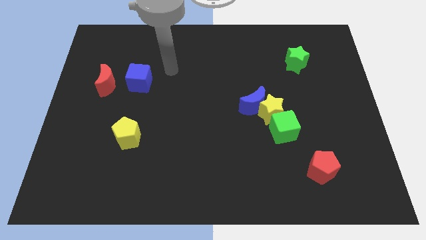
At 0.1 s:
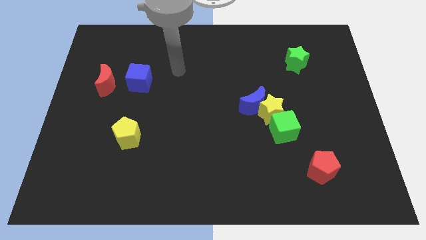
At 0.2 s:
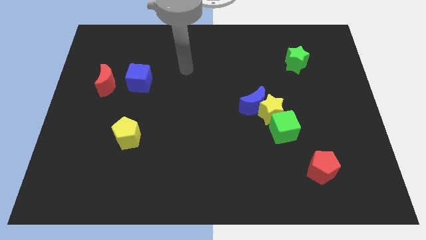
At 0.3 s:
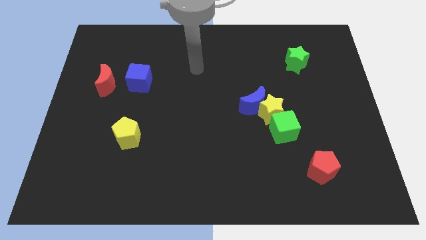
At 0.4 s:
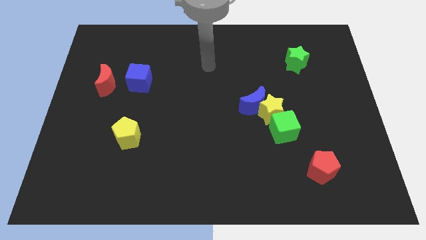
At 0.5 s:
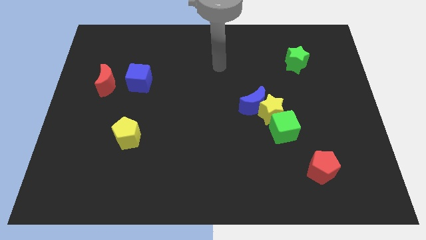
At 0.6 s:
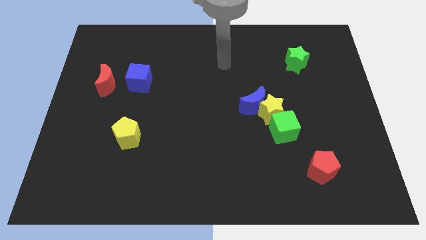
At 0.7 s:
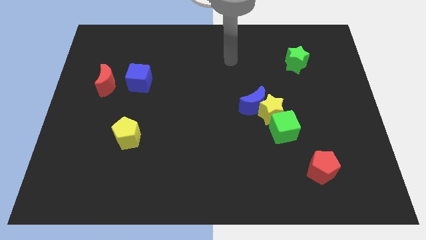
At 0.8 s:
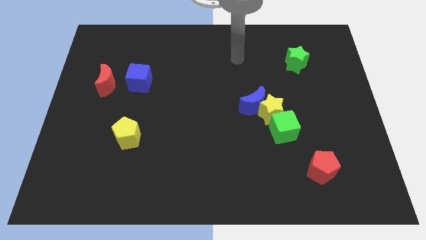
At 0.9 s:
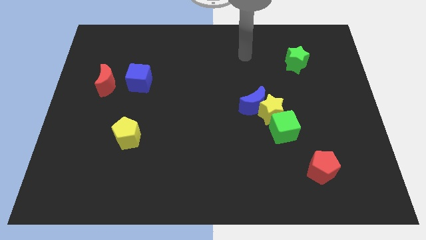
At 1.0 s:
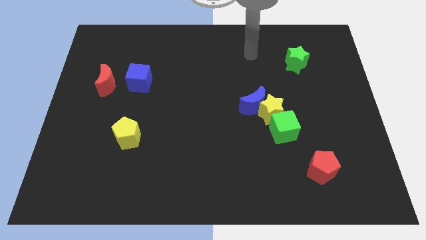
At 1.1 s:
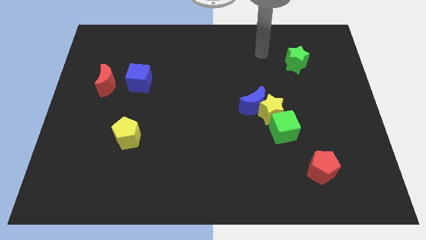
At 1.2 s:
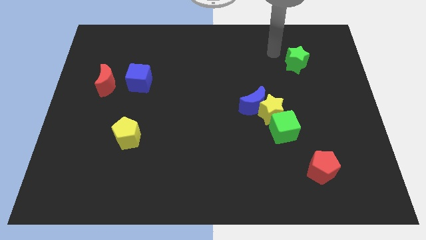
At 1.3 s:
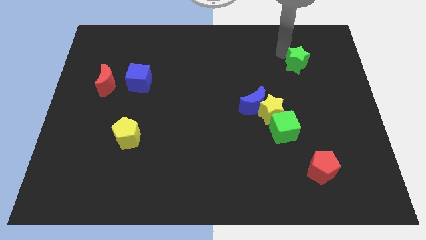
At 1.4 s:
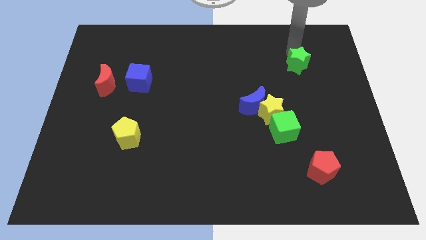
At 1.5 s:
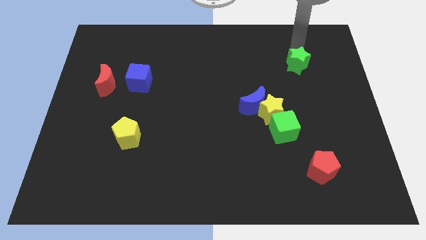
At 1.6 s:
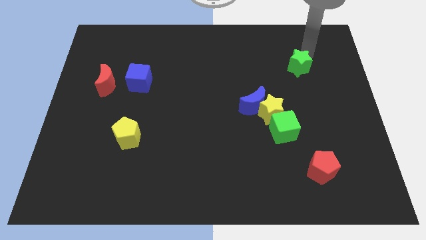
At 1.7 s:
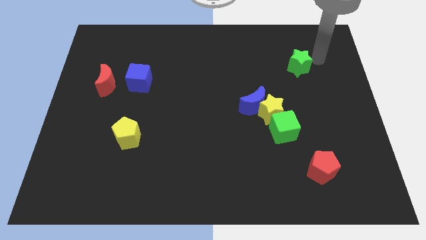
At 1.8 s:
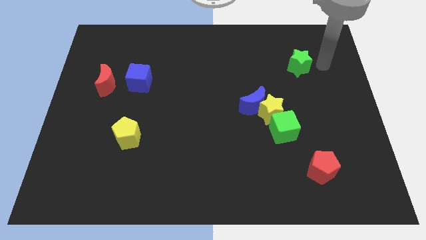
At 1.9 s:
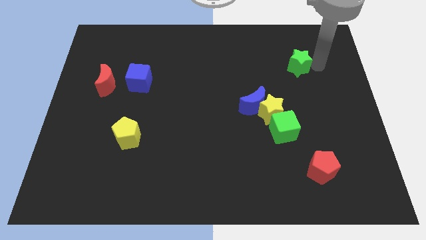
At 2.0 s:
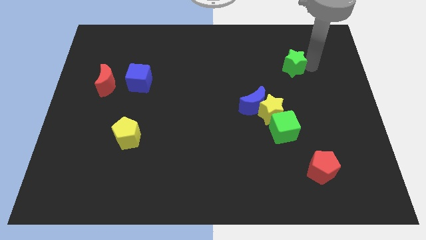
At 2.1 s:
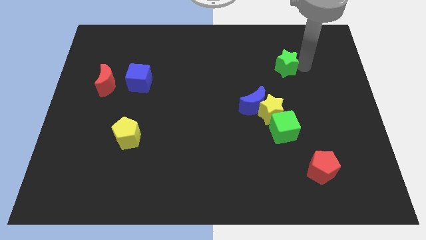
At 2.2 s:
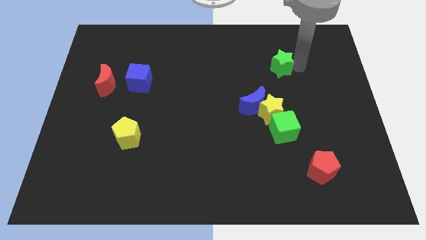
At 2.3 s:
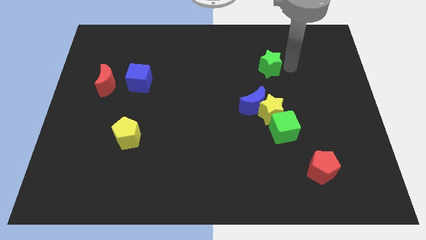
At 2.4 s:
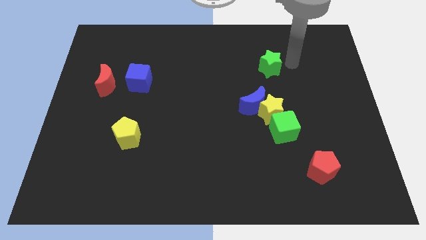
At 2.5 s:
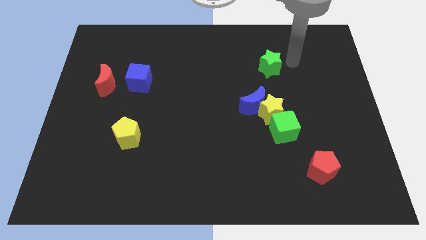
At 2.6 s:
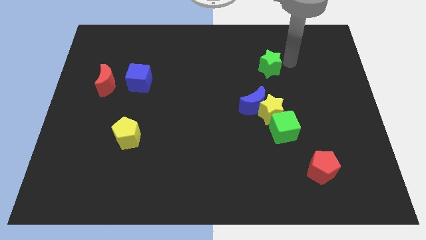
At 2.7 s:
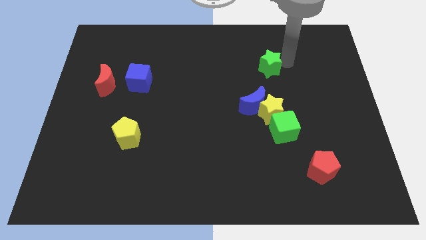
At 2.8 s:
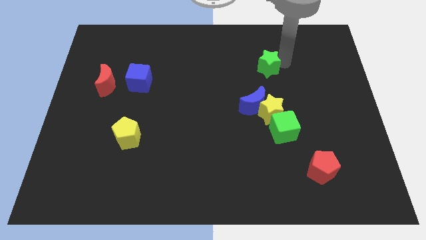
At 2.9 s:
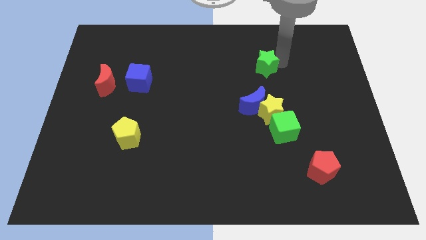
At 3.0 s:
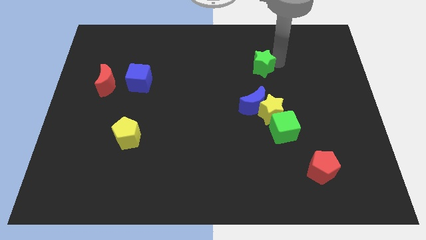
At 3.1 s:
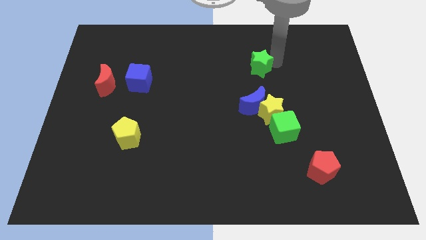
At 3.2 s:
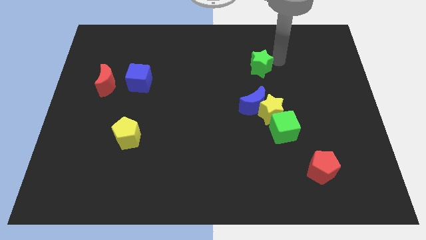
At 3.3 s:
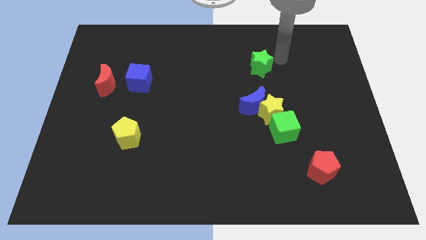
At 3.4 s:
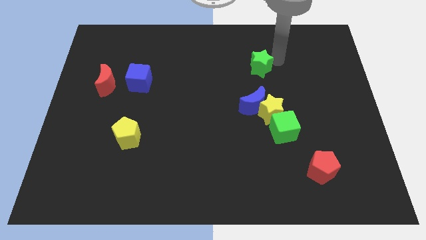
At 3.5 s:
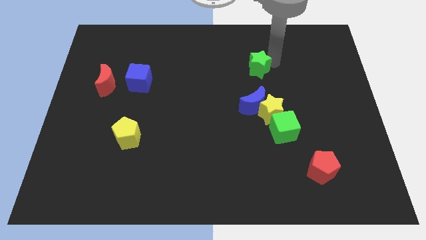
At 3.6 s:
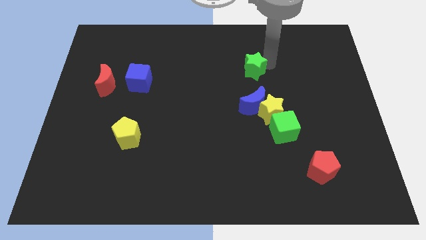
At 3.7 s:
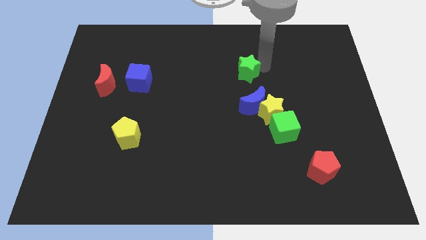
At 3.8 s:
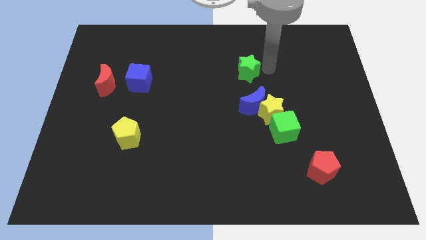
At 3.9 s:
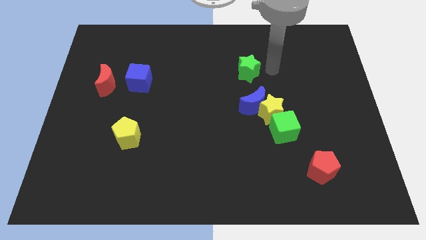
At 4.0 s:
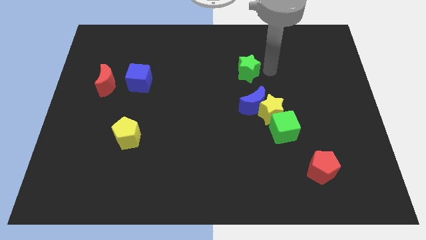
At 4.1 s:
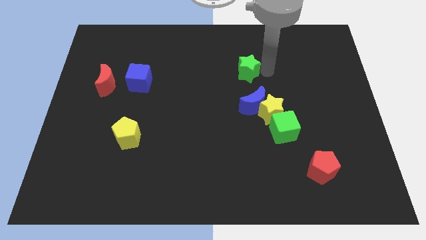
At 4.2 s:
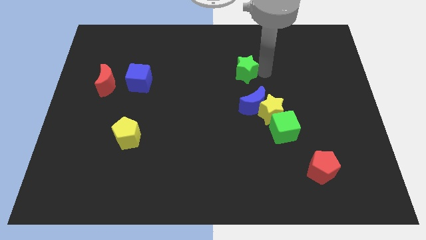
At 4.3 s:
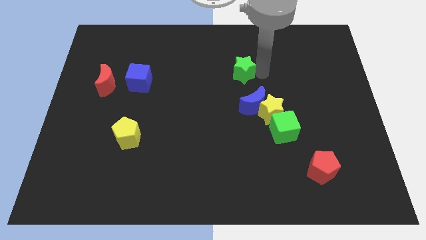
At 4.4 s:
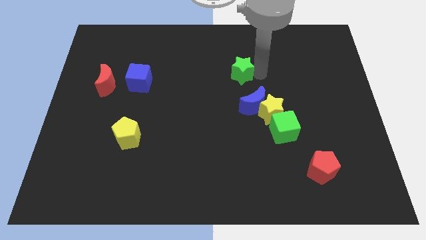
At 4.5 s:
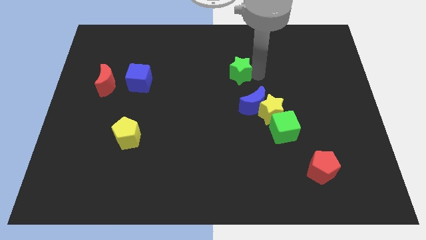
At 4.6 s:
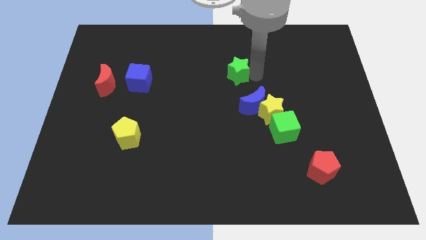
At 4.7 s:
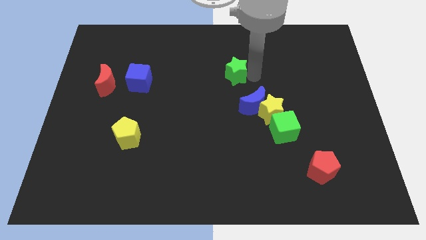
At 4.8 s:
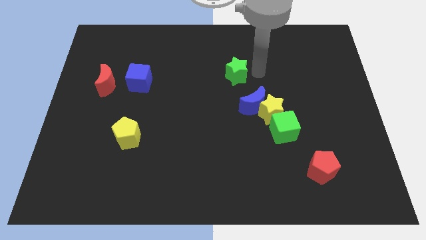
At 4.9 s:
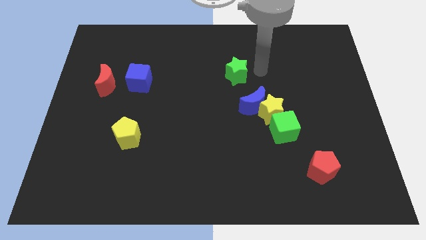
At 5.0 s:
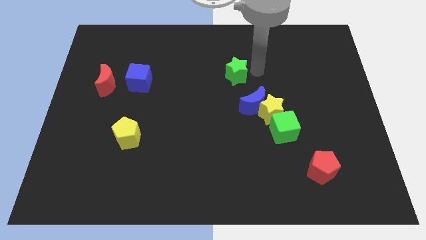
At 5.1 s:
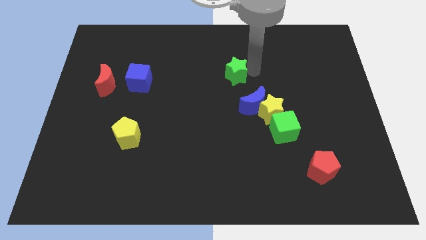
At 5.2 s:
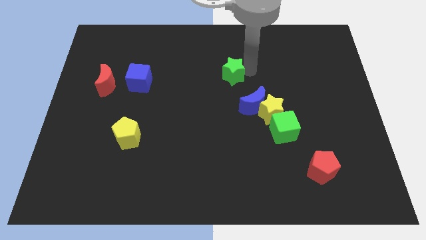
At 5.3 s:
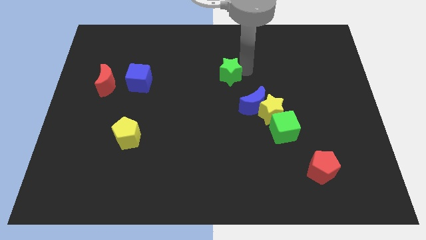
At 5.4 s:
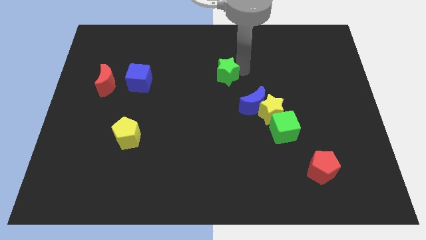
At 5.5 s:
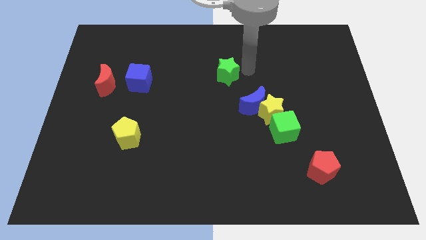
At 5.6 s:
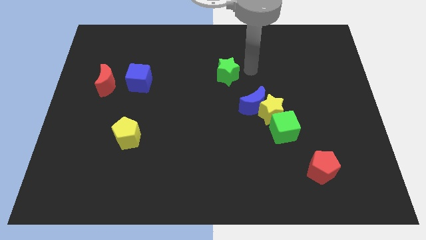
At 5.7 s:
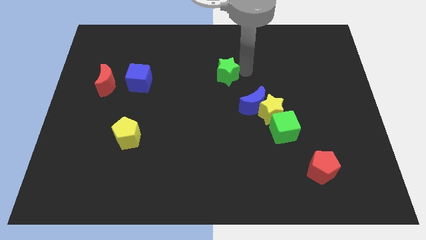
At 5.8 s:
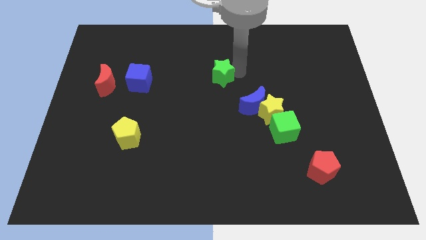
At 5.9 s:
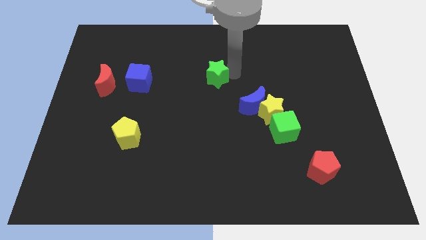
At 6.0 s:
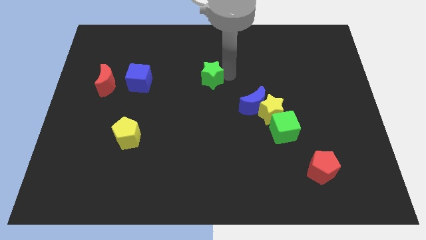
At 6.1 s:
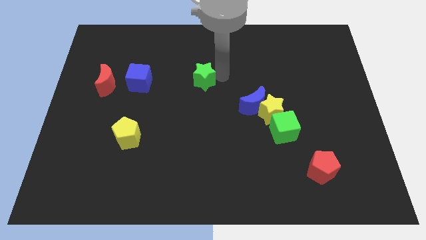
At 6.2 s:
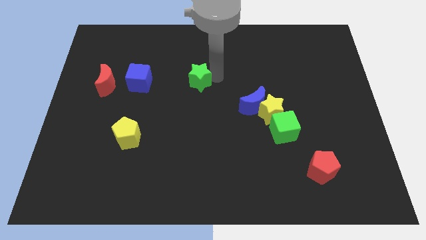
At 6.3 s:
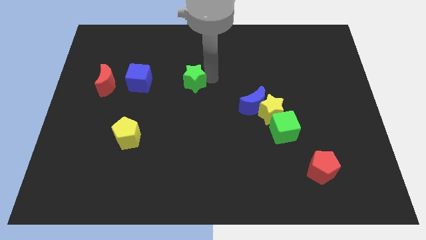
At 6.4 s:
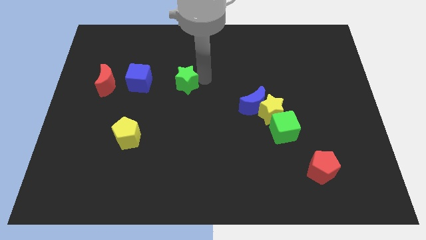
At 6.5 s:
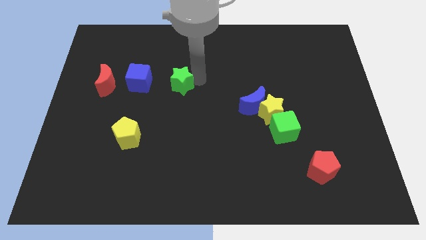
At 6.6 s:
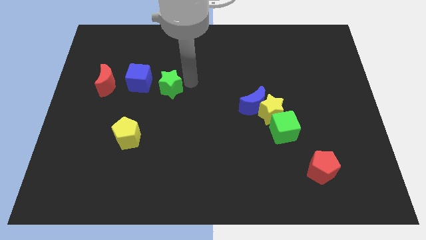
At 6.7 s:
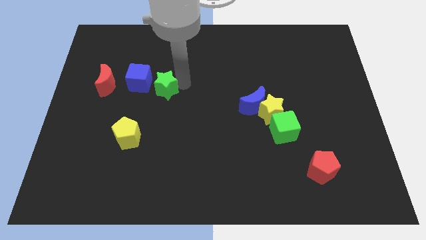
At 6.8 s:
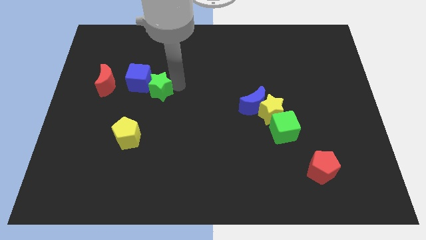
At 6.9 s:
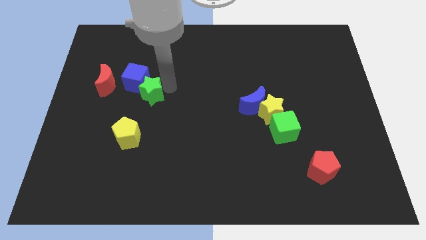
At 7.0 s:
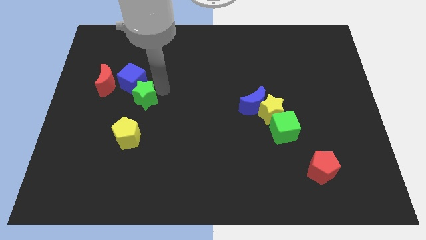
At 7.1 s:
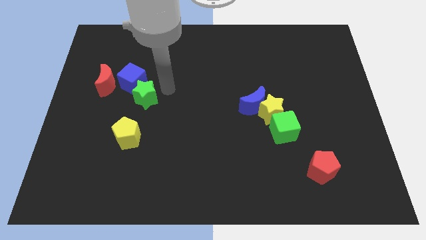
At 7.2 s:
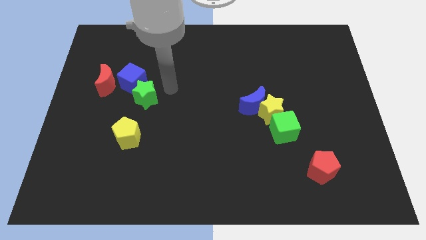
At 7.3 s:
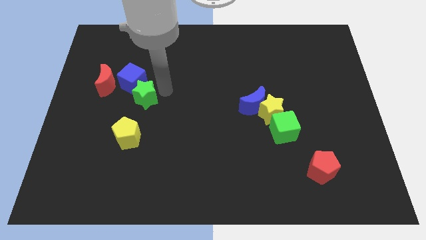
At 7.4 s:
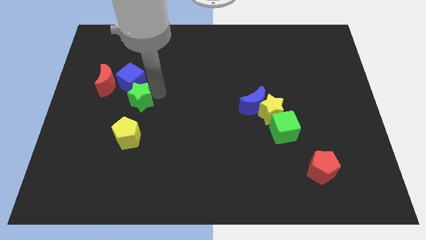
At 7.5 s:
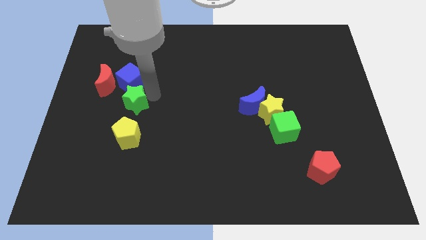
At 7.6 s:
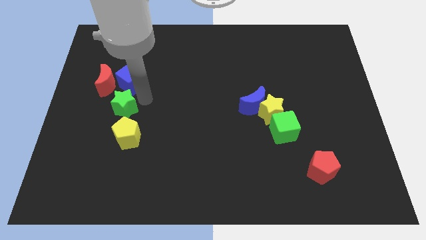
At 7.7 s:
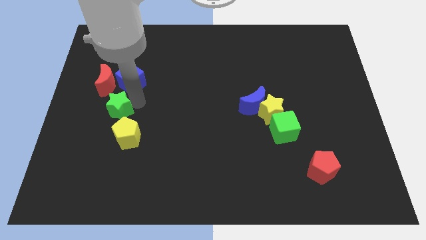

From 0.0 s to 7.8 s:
push the green star to the bottom of the red moon
